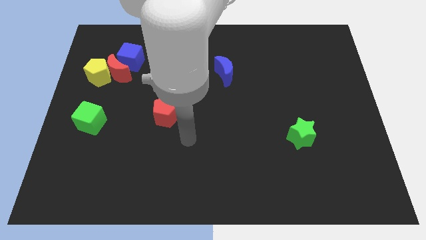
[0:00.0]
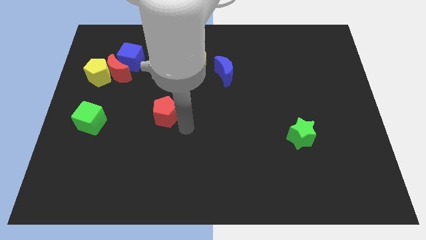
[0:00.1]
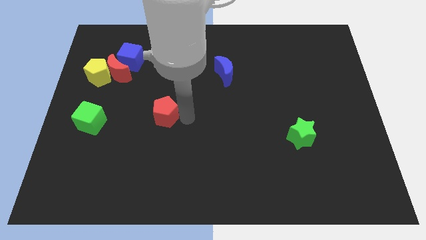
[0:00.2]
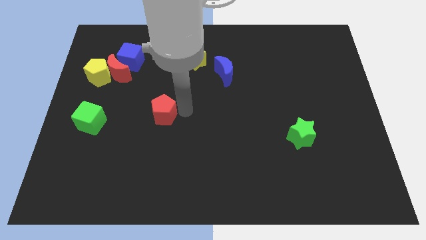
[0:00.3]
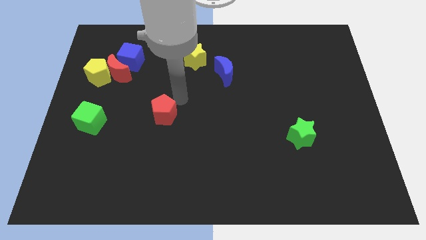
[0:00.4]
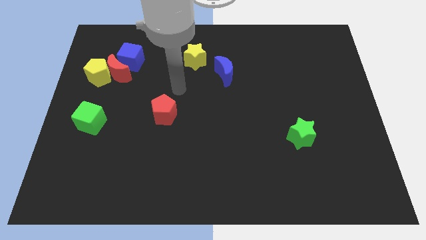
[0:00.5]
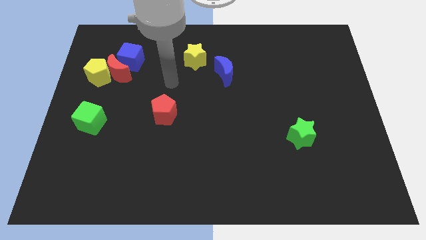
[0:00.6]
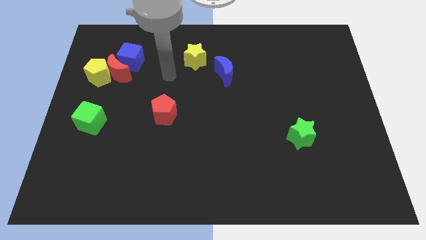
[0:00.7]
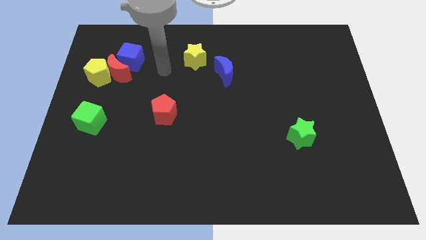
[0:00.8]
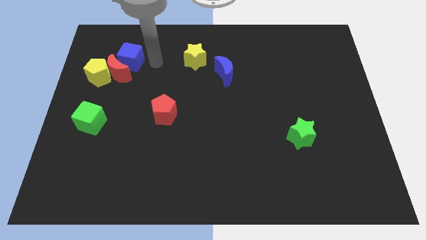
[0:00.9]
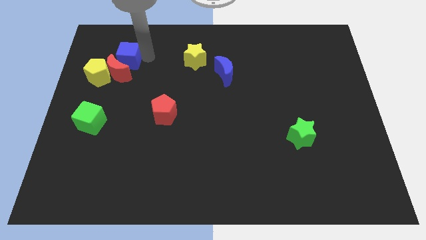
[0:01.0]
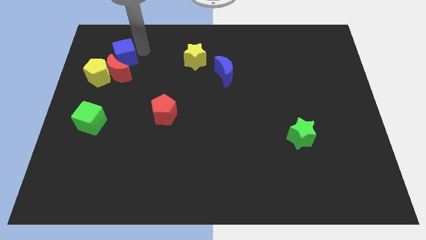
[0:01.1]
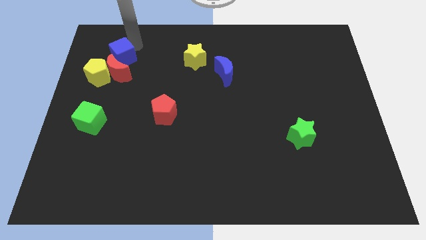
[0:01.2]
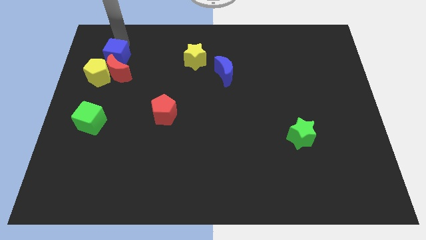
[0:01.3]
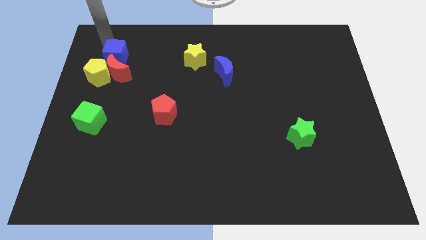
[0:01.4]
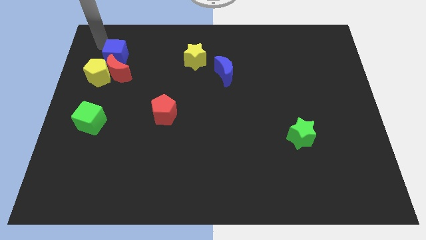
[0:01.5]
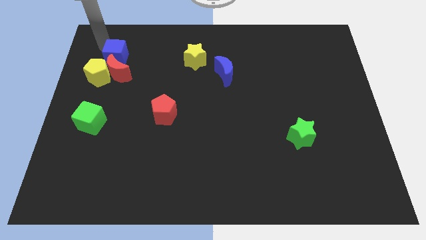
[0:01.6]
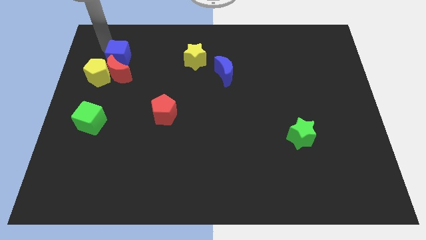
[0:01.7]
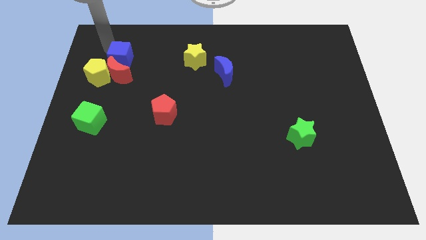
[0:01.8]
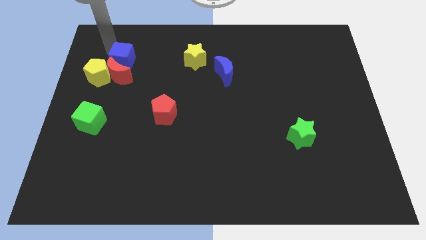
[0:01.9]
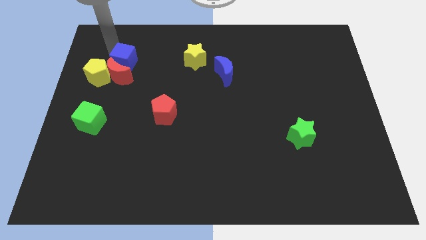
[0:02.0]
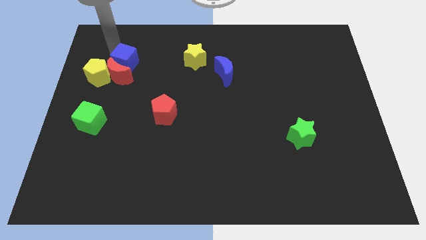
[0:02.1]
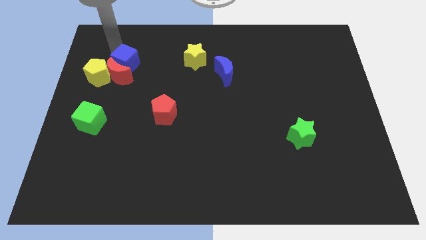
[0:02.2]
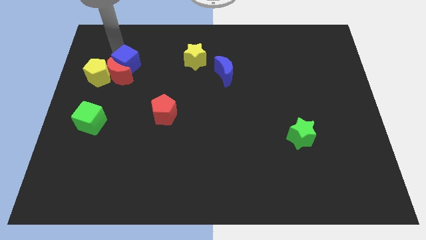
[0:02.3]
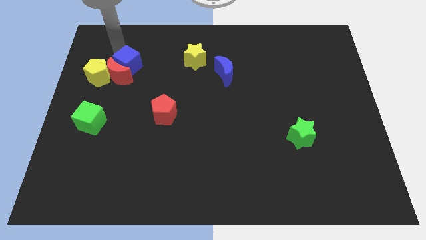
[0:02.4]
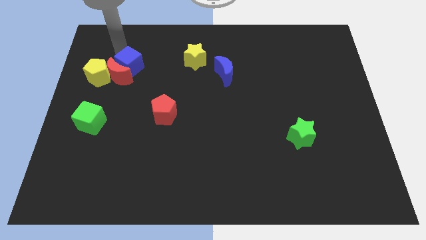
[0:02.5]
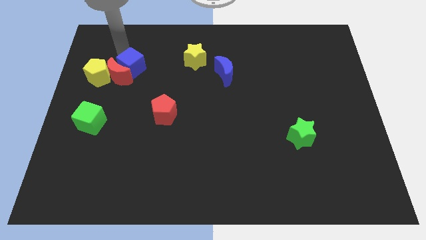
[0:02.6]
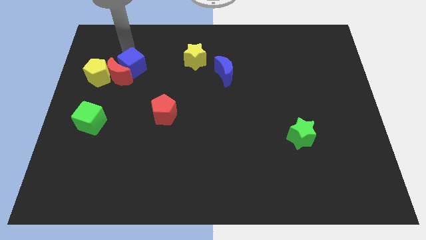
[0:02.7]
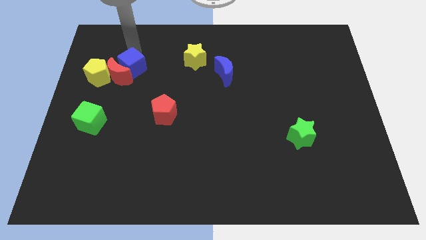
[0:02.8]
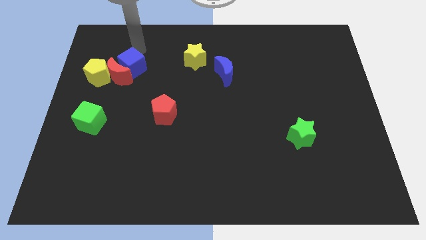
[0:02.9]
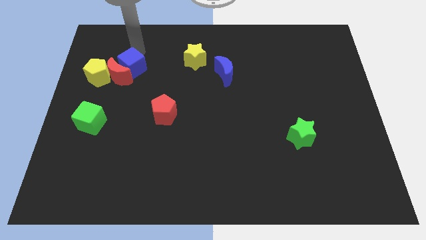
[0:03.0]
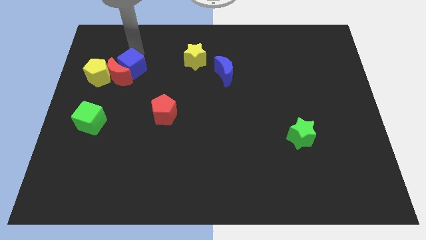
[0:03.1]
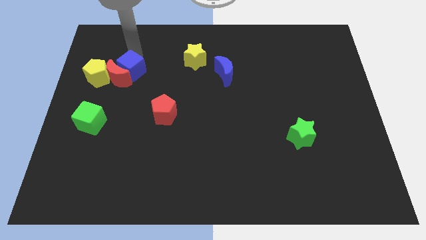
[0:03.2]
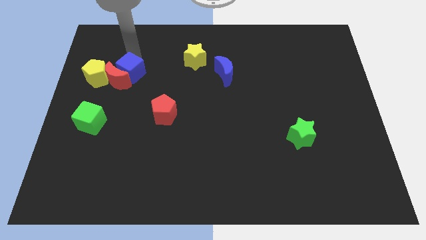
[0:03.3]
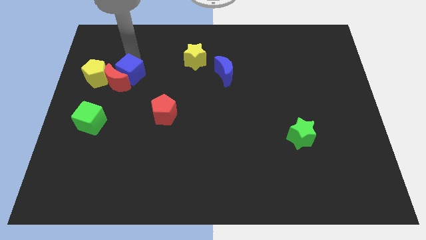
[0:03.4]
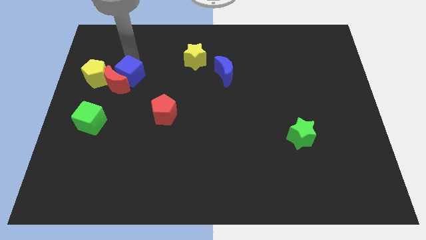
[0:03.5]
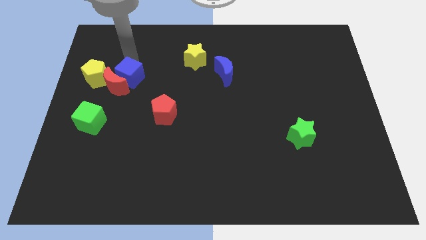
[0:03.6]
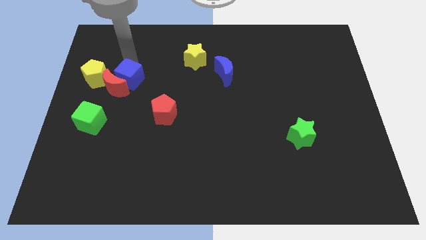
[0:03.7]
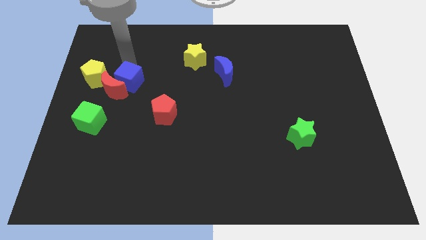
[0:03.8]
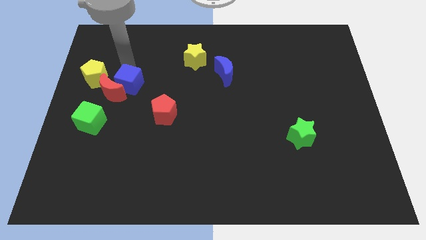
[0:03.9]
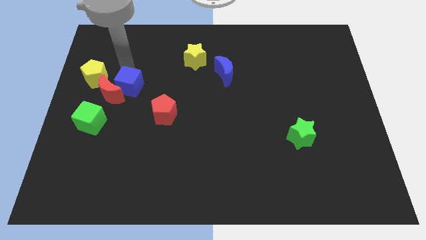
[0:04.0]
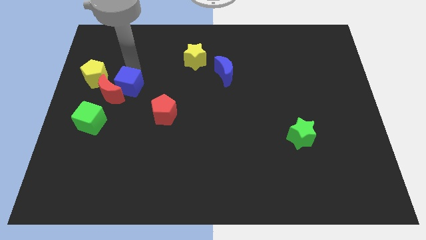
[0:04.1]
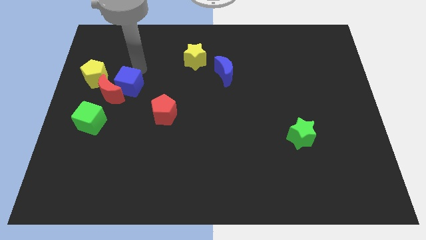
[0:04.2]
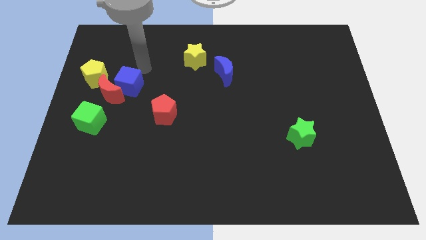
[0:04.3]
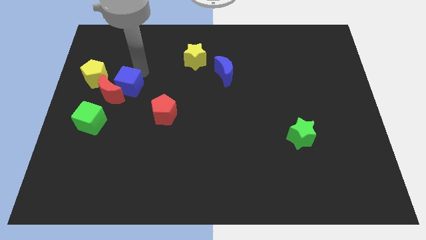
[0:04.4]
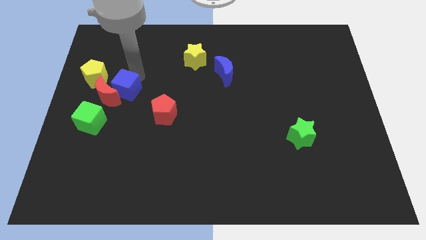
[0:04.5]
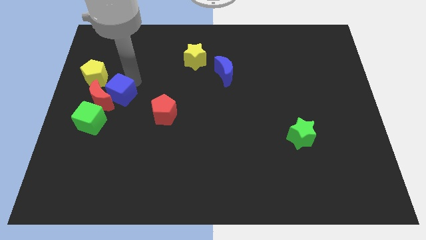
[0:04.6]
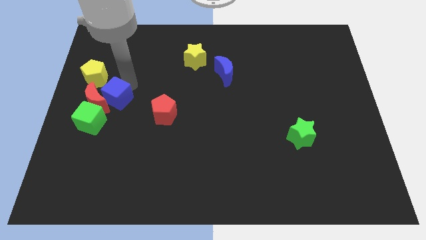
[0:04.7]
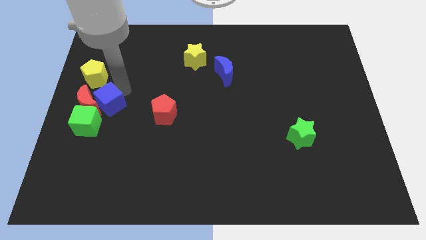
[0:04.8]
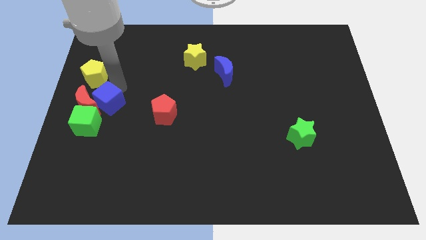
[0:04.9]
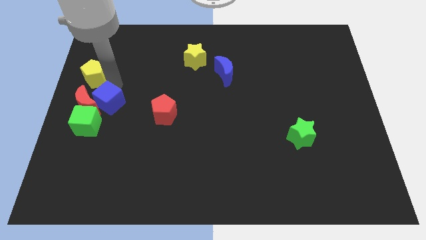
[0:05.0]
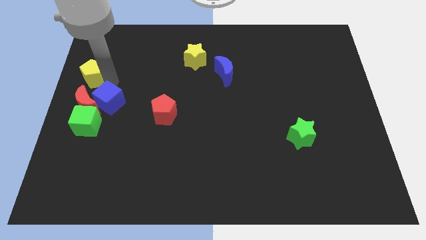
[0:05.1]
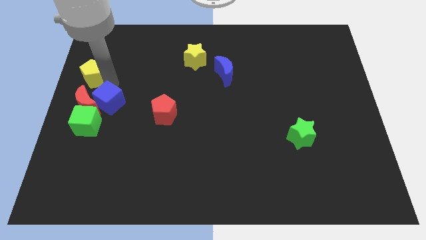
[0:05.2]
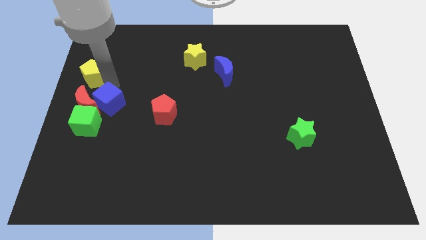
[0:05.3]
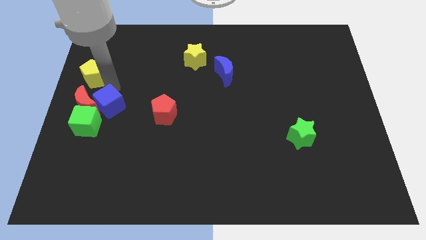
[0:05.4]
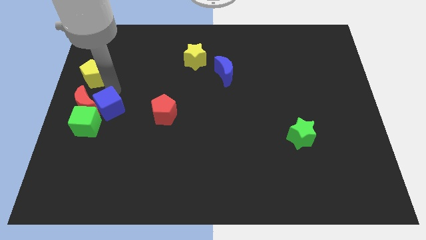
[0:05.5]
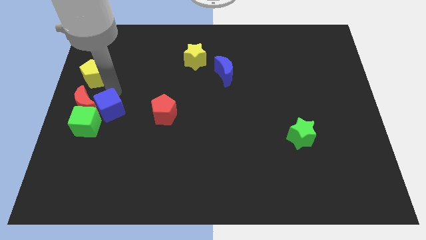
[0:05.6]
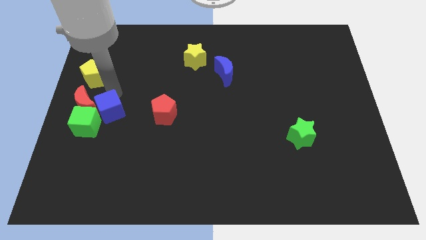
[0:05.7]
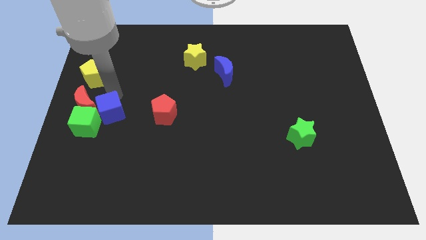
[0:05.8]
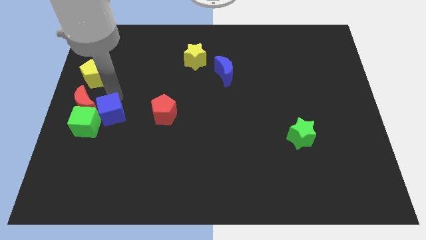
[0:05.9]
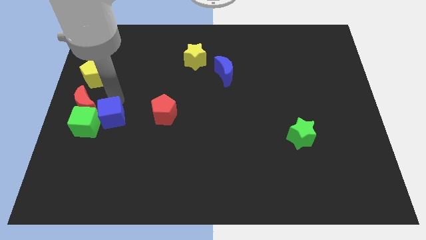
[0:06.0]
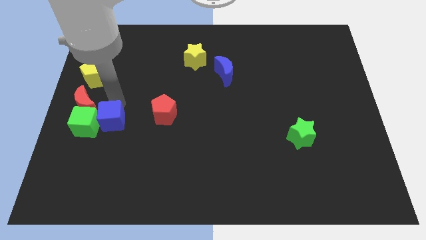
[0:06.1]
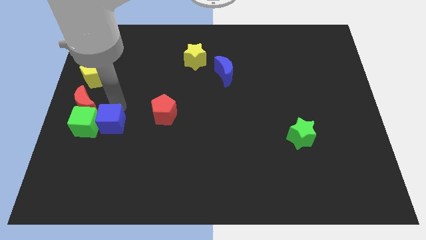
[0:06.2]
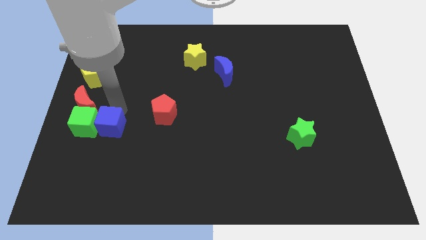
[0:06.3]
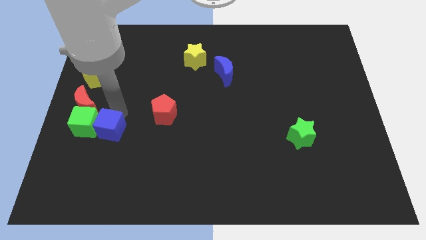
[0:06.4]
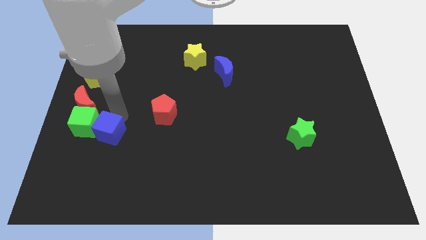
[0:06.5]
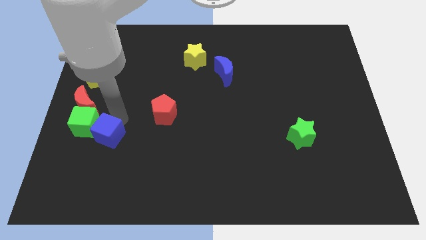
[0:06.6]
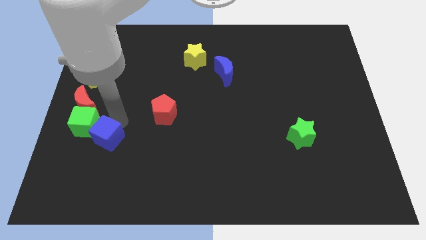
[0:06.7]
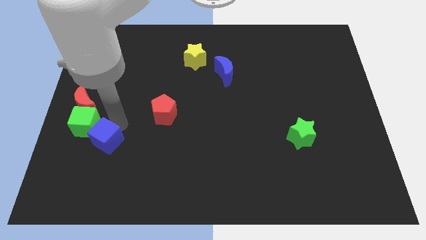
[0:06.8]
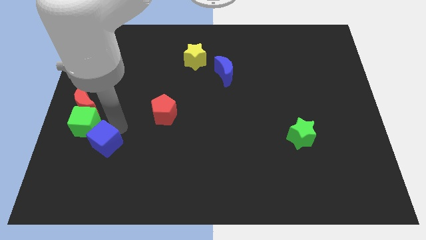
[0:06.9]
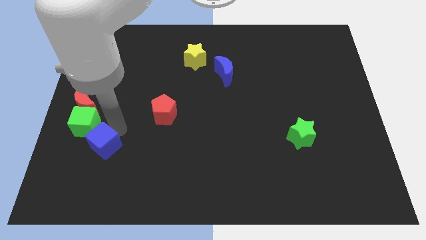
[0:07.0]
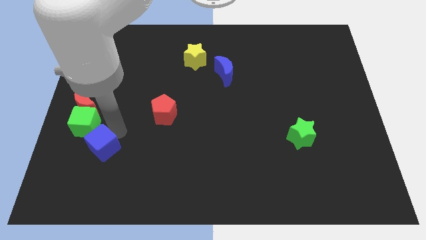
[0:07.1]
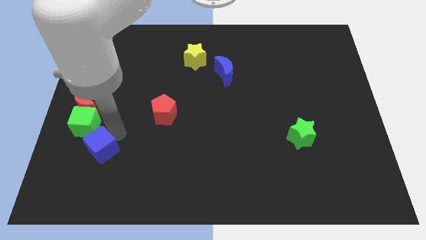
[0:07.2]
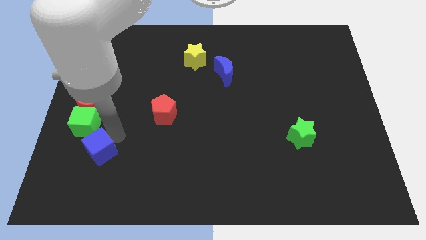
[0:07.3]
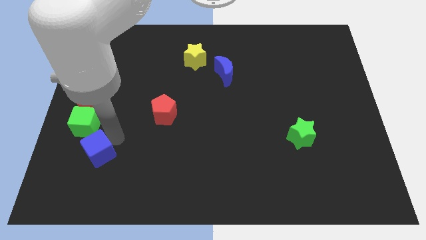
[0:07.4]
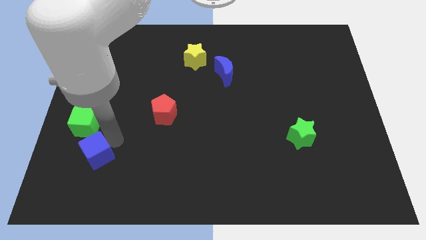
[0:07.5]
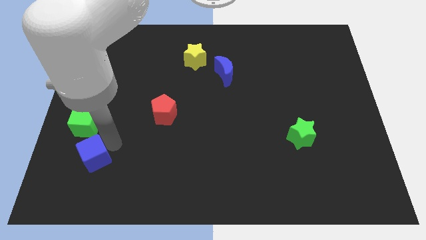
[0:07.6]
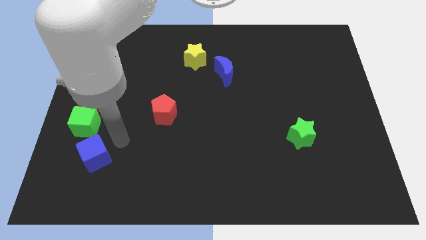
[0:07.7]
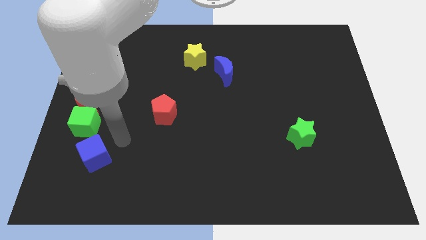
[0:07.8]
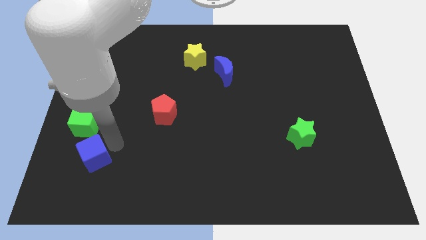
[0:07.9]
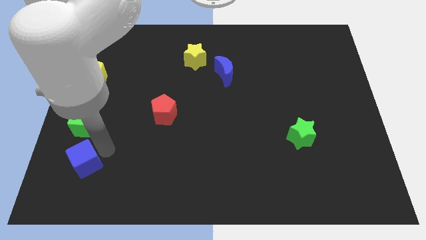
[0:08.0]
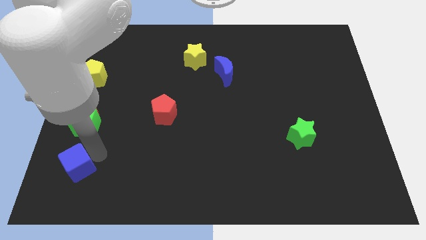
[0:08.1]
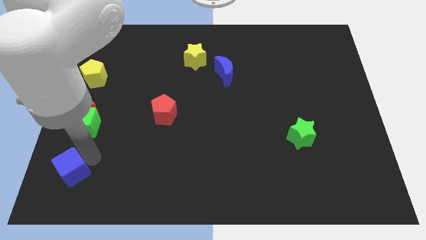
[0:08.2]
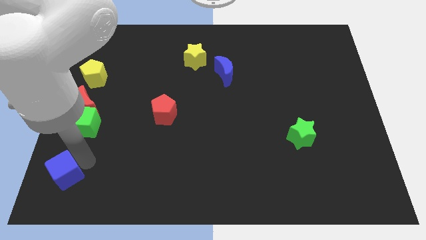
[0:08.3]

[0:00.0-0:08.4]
move the blue cube to the bottom left corner
